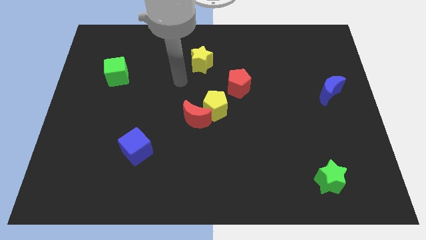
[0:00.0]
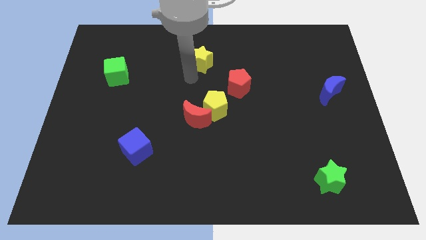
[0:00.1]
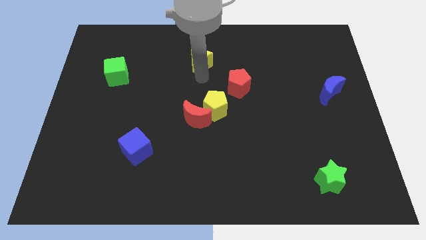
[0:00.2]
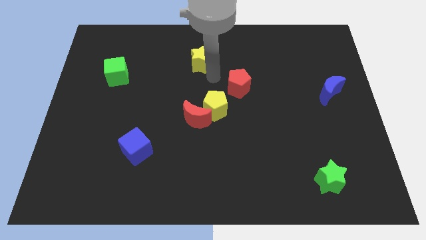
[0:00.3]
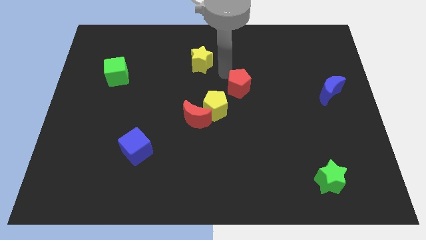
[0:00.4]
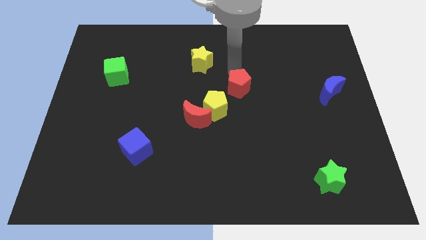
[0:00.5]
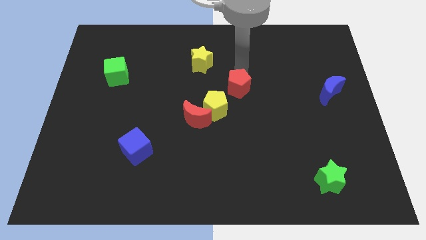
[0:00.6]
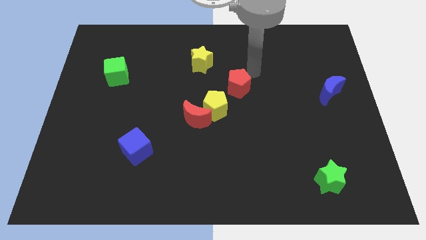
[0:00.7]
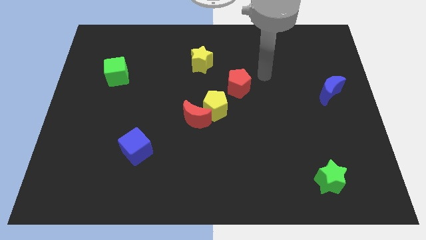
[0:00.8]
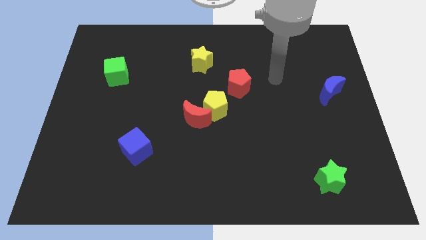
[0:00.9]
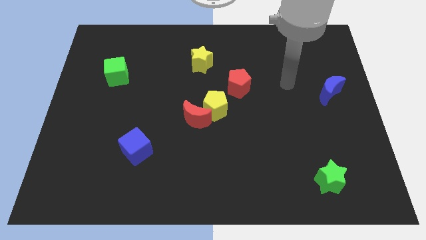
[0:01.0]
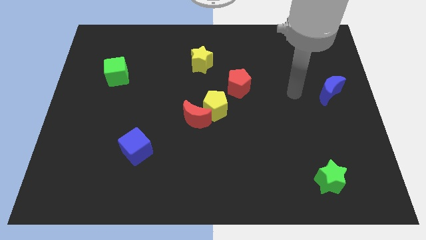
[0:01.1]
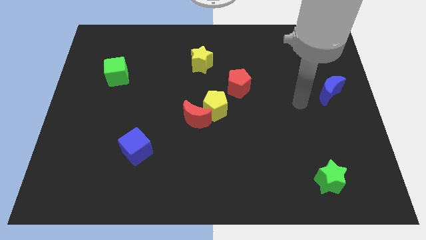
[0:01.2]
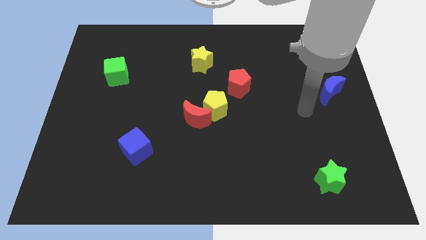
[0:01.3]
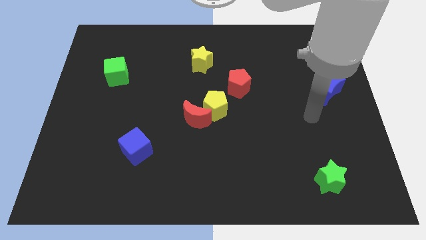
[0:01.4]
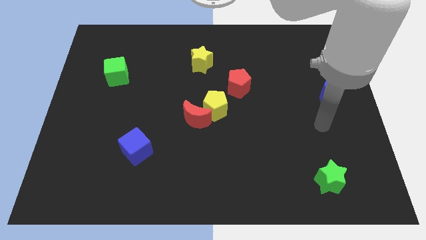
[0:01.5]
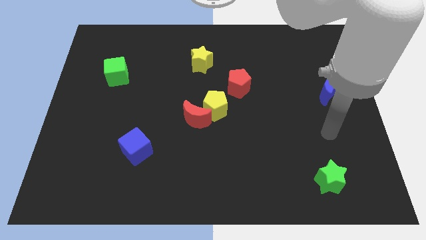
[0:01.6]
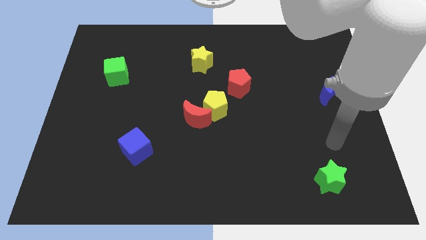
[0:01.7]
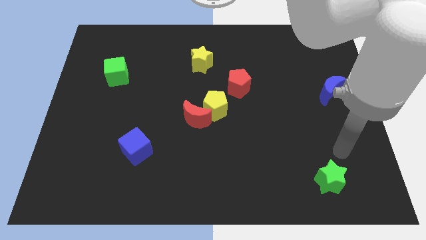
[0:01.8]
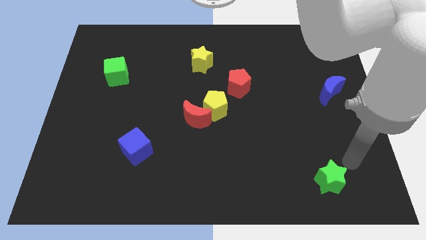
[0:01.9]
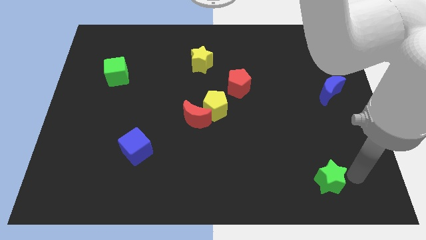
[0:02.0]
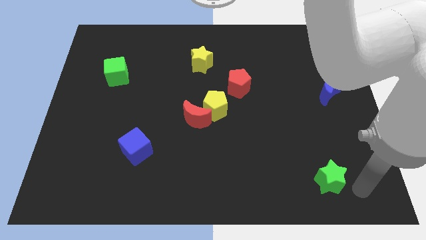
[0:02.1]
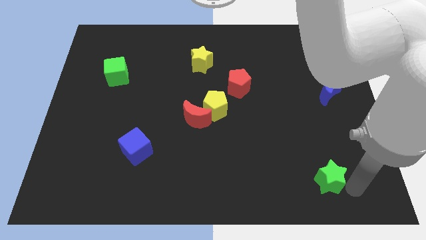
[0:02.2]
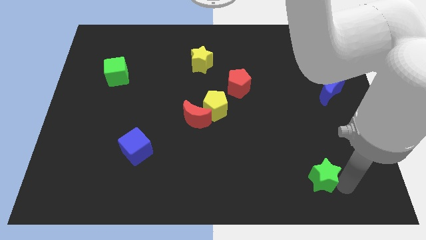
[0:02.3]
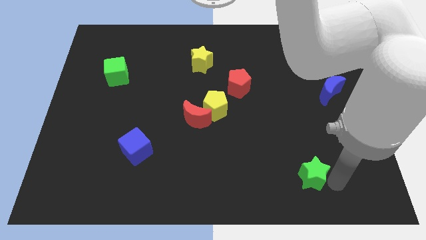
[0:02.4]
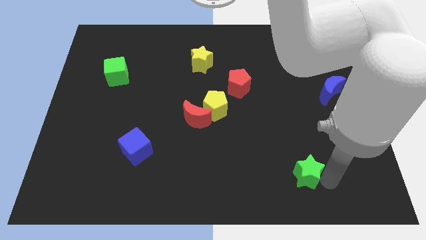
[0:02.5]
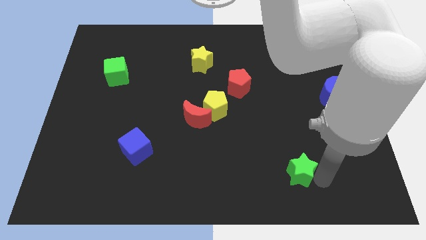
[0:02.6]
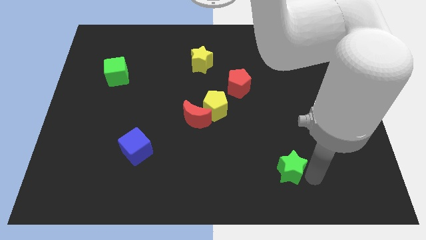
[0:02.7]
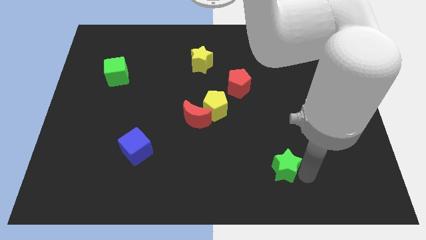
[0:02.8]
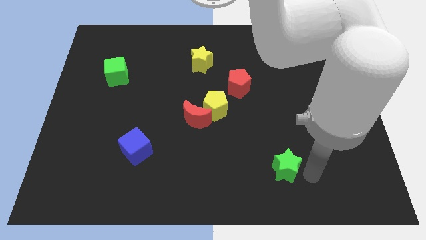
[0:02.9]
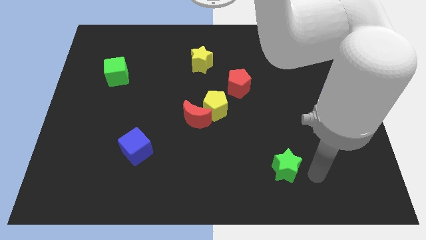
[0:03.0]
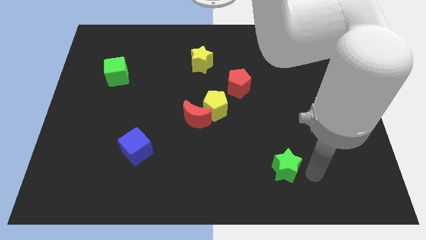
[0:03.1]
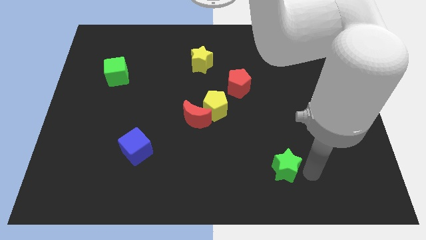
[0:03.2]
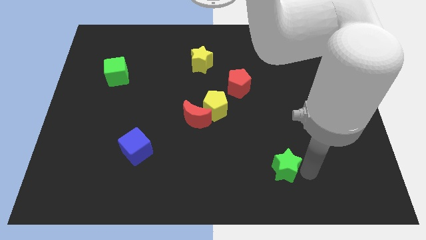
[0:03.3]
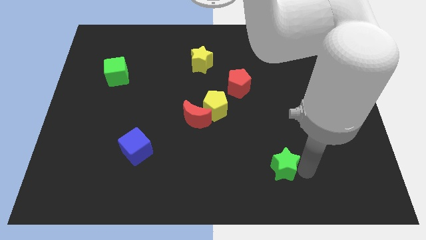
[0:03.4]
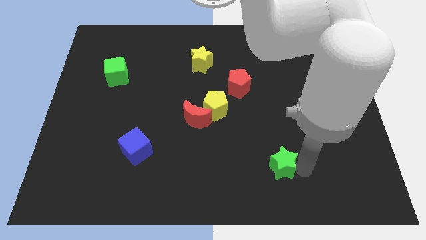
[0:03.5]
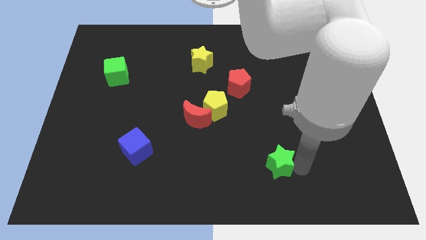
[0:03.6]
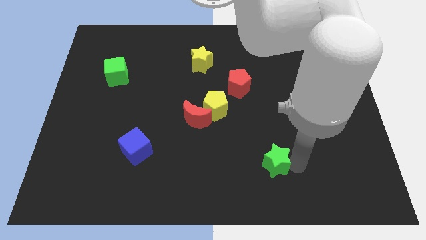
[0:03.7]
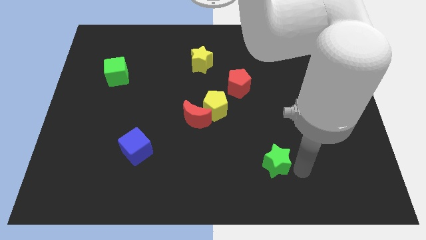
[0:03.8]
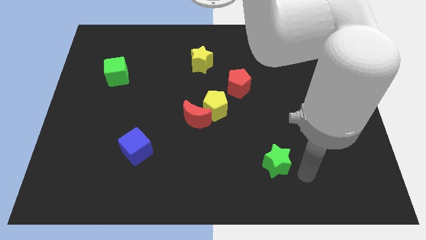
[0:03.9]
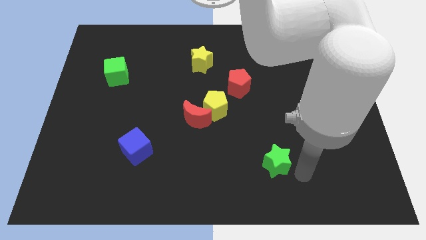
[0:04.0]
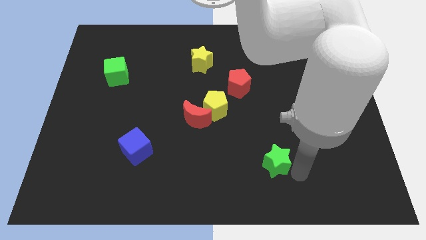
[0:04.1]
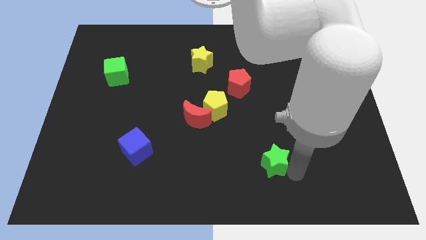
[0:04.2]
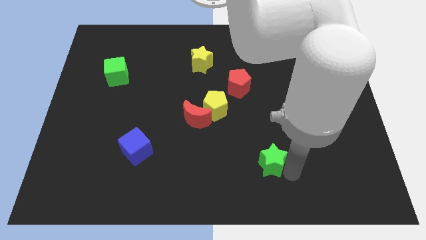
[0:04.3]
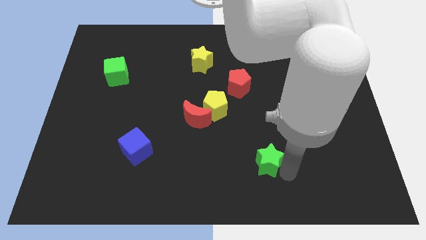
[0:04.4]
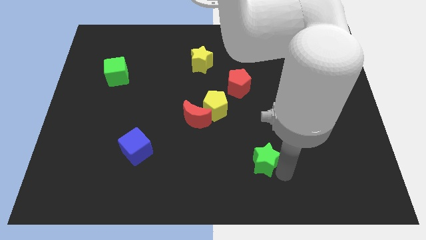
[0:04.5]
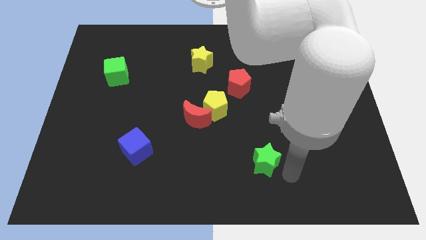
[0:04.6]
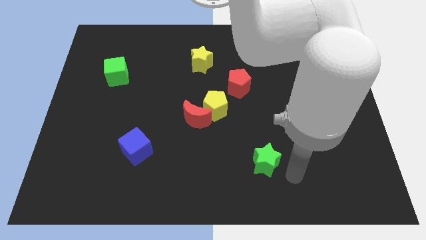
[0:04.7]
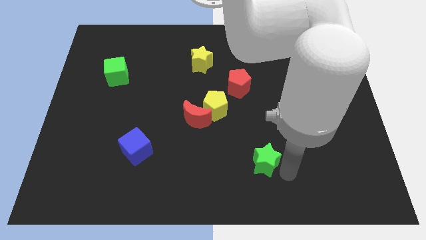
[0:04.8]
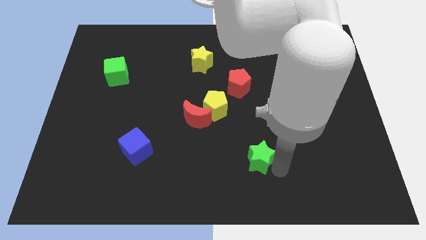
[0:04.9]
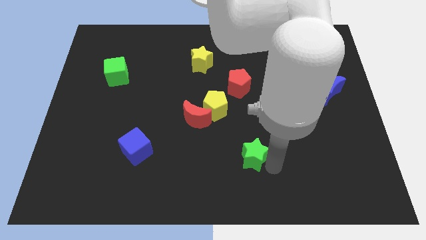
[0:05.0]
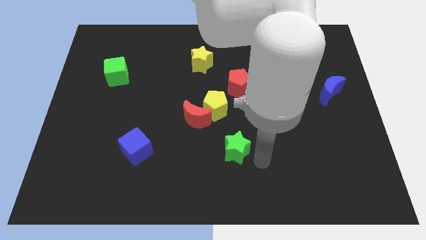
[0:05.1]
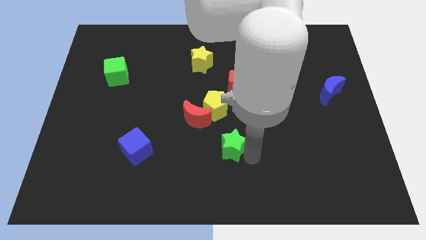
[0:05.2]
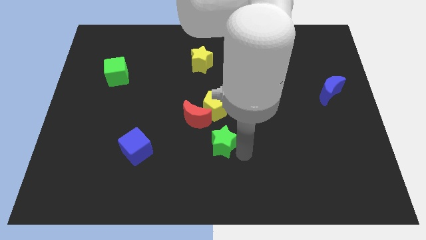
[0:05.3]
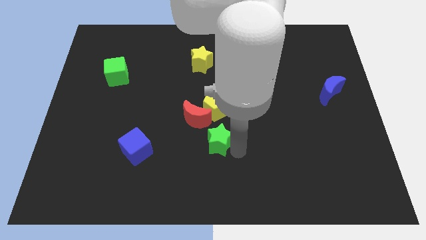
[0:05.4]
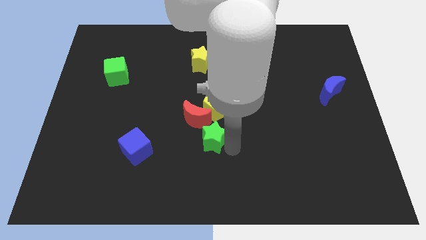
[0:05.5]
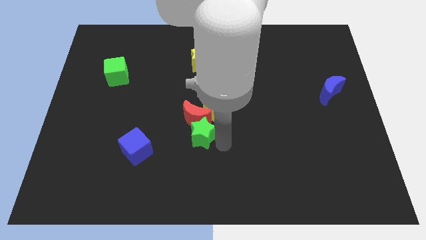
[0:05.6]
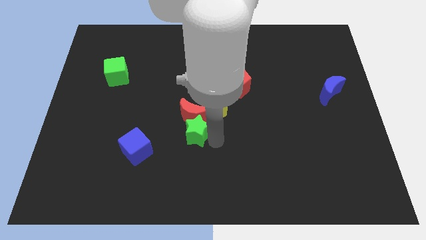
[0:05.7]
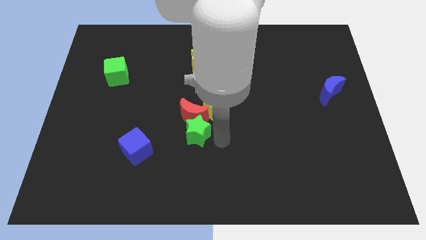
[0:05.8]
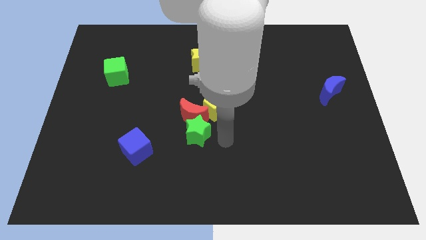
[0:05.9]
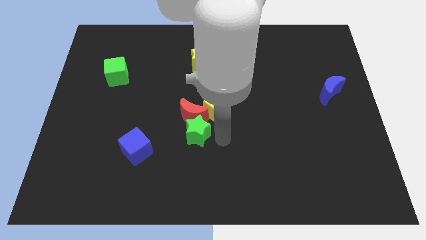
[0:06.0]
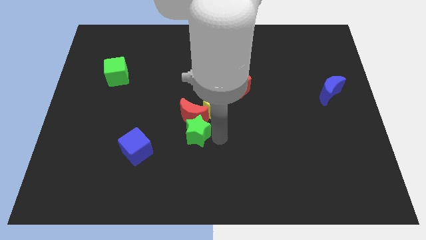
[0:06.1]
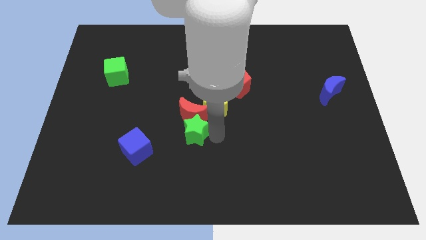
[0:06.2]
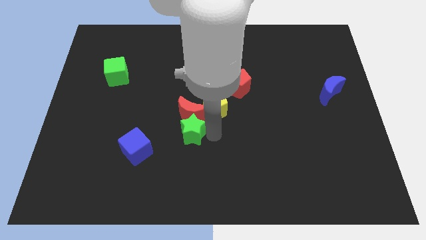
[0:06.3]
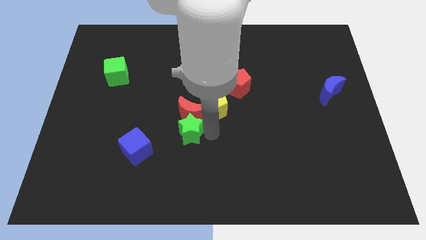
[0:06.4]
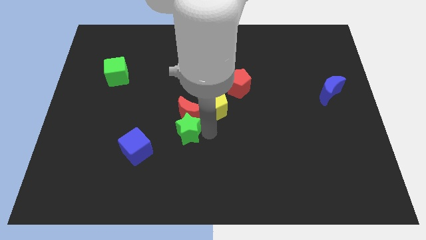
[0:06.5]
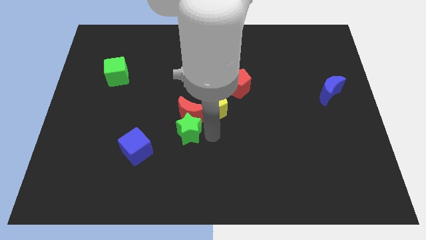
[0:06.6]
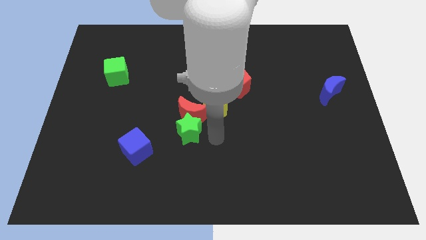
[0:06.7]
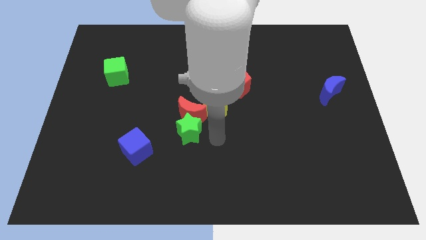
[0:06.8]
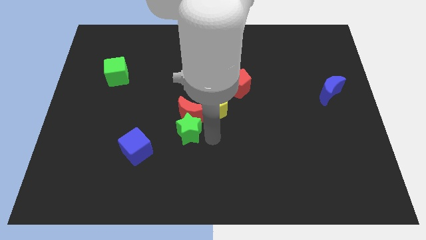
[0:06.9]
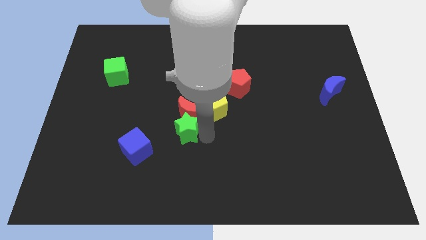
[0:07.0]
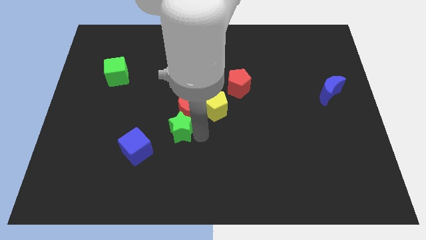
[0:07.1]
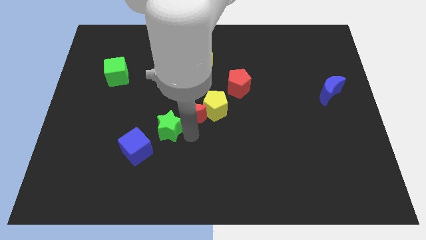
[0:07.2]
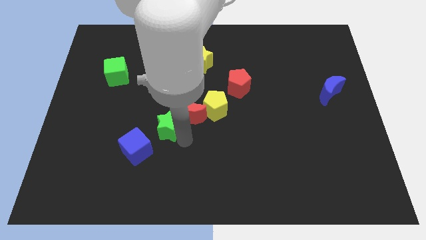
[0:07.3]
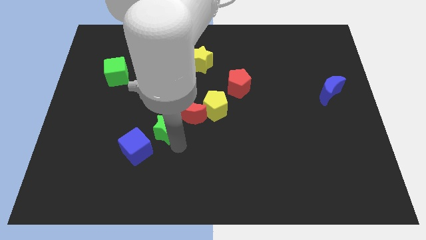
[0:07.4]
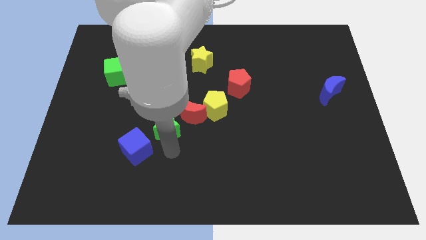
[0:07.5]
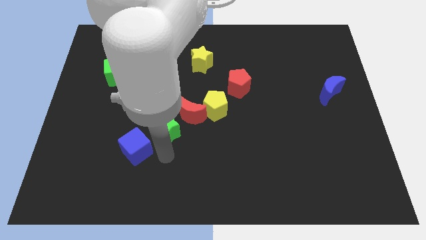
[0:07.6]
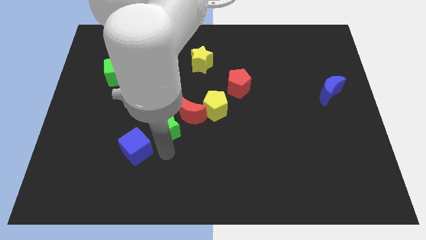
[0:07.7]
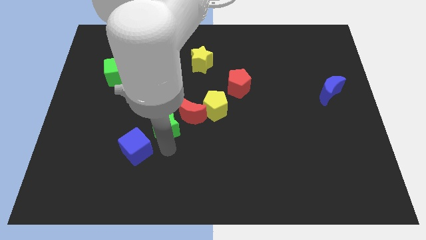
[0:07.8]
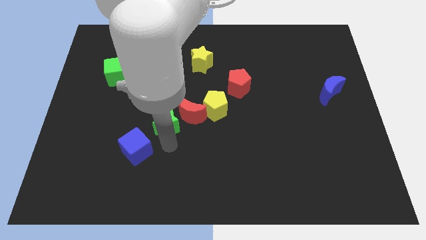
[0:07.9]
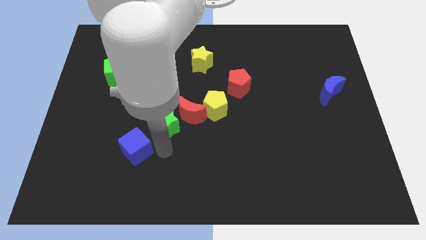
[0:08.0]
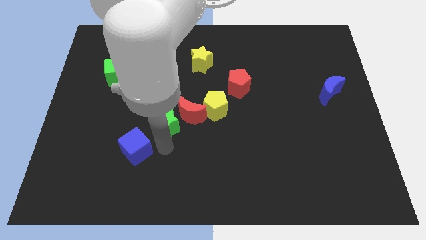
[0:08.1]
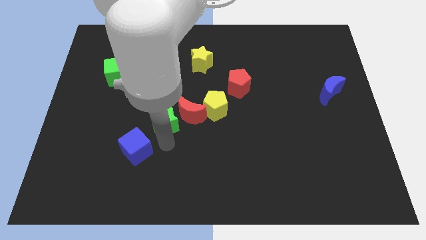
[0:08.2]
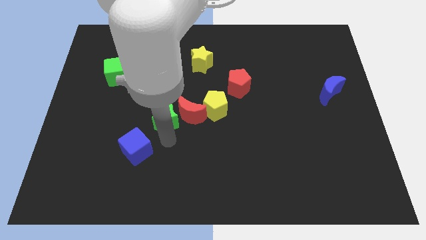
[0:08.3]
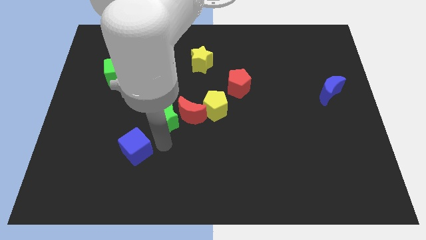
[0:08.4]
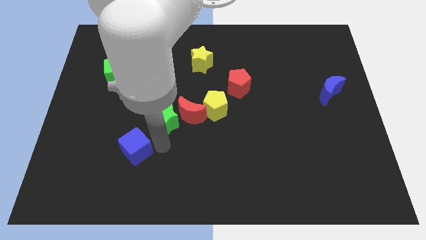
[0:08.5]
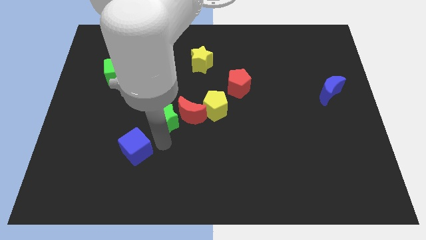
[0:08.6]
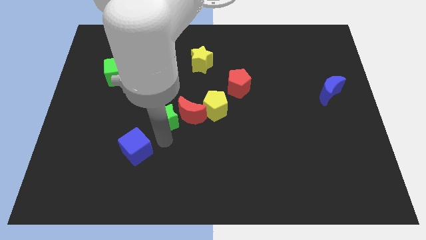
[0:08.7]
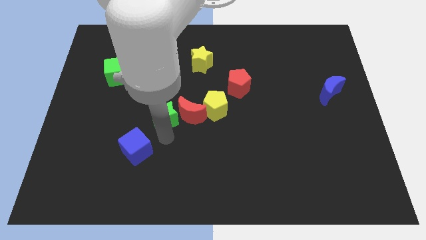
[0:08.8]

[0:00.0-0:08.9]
slide the green star to the top left side of the red moon
